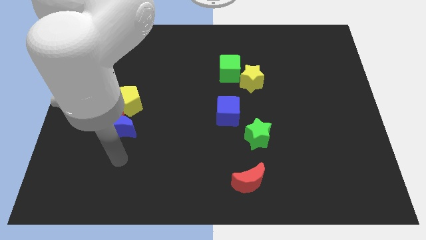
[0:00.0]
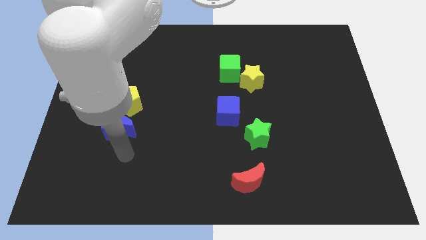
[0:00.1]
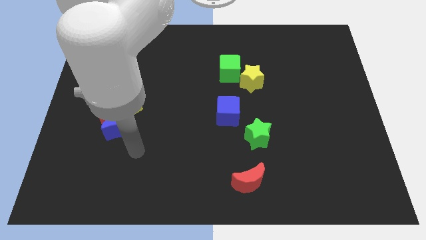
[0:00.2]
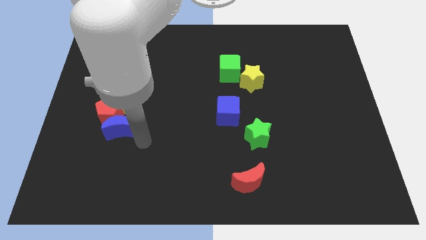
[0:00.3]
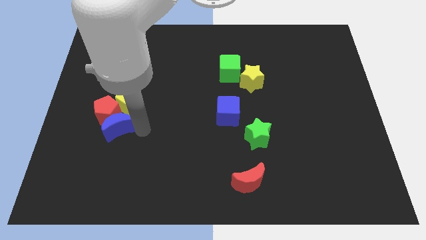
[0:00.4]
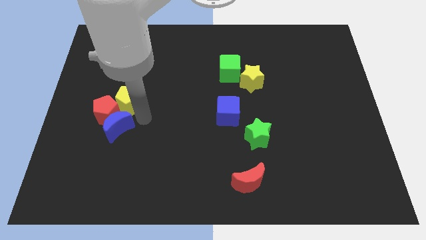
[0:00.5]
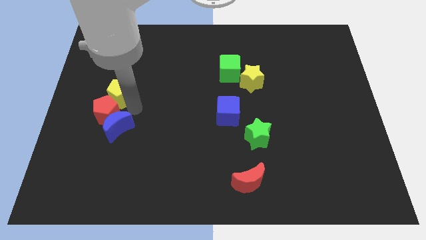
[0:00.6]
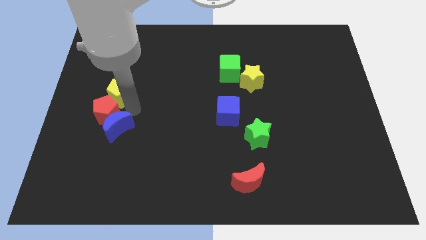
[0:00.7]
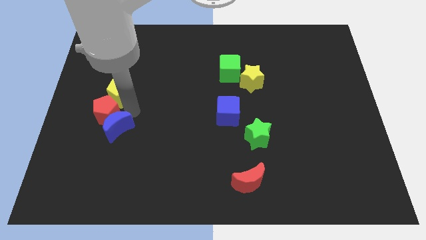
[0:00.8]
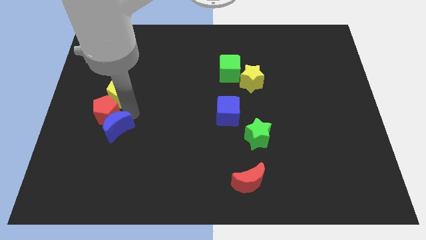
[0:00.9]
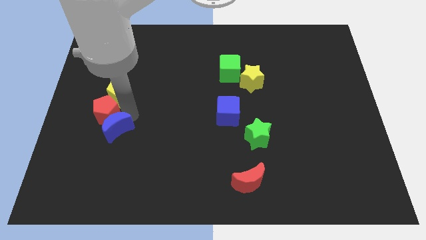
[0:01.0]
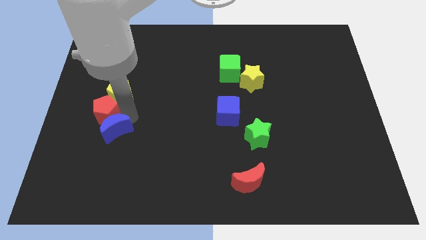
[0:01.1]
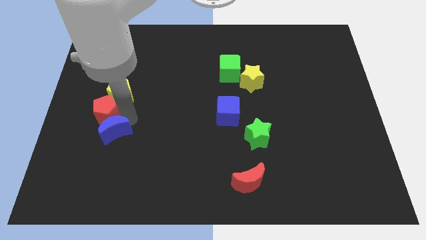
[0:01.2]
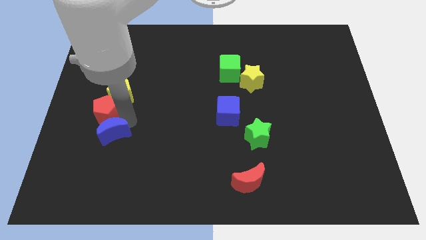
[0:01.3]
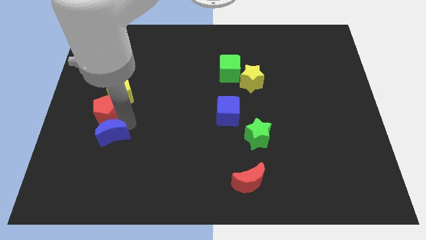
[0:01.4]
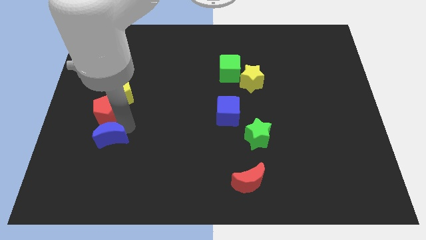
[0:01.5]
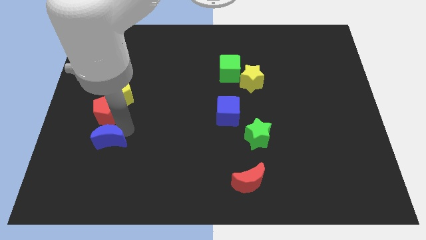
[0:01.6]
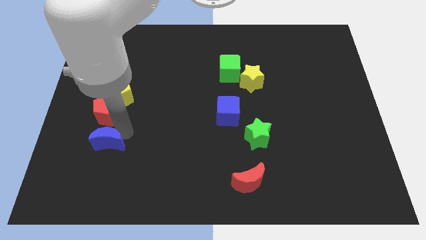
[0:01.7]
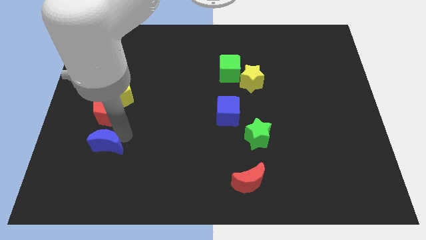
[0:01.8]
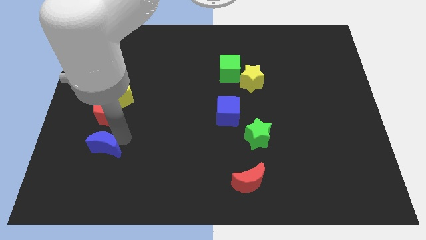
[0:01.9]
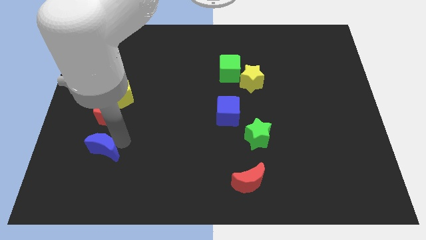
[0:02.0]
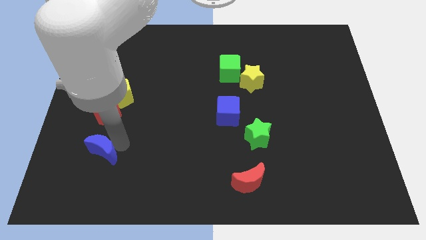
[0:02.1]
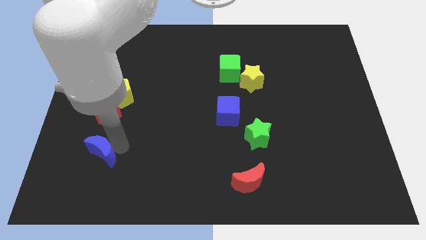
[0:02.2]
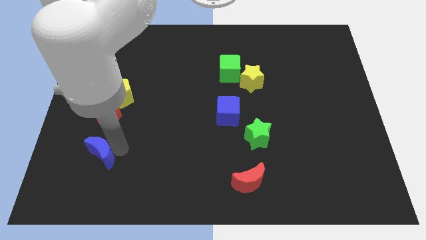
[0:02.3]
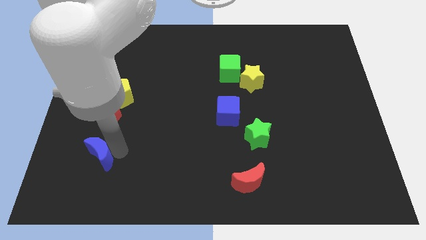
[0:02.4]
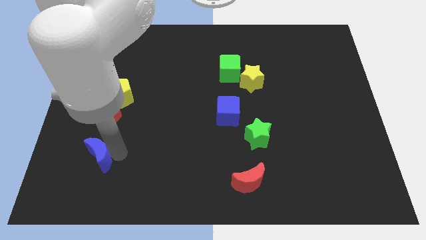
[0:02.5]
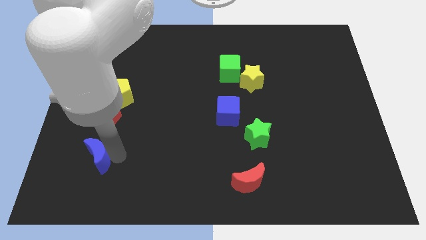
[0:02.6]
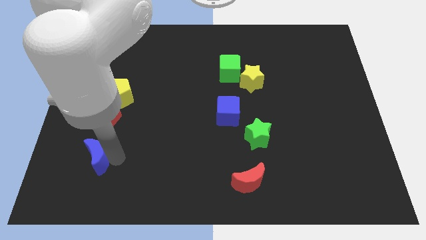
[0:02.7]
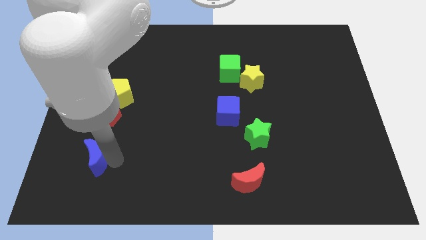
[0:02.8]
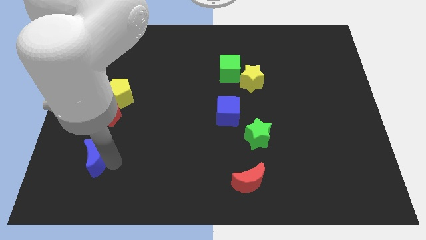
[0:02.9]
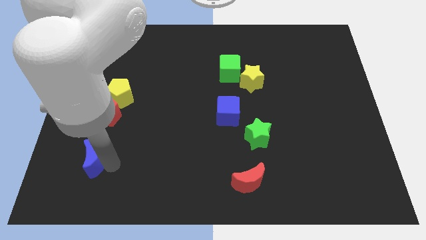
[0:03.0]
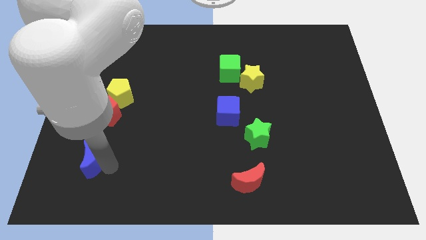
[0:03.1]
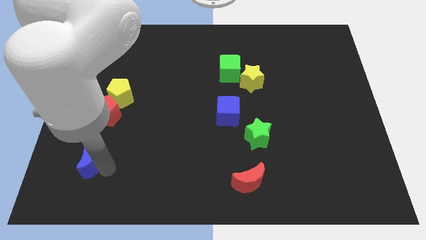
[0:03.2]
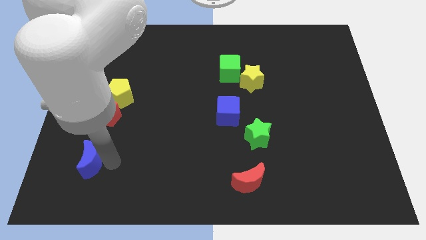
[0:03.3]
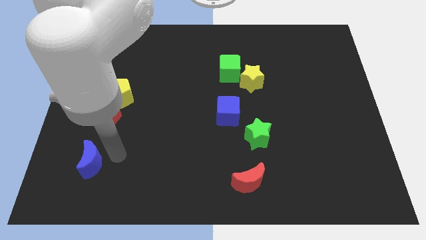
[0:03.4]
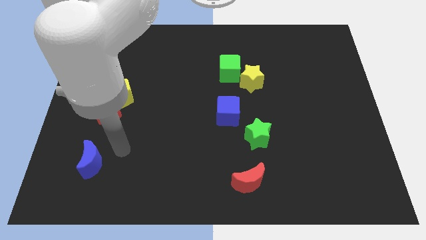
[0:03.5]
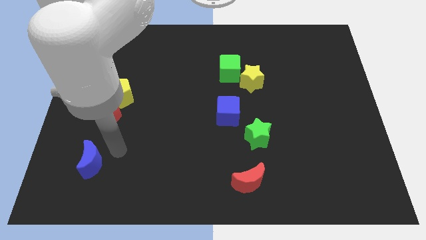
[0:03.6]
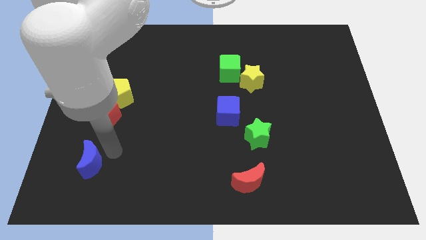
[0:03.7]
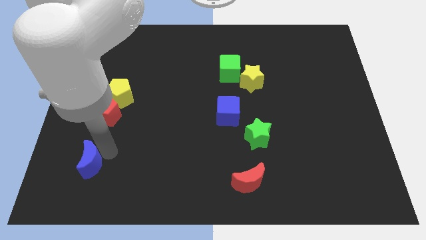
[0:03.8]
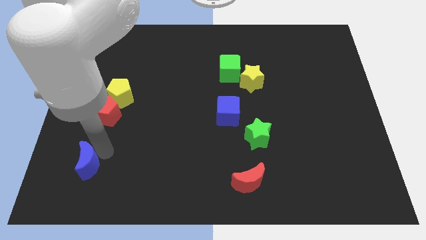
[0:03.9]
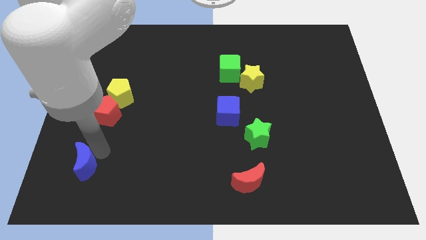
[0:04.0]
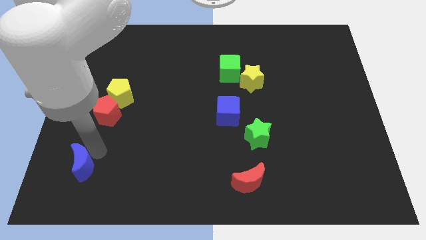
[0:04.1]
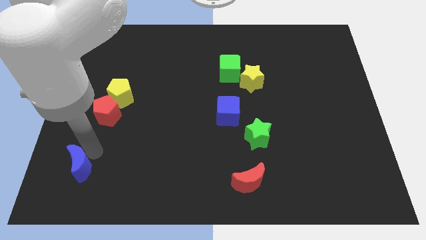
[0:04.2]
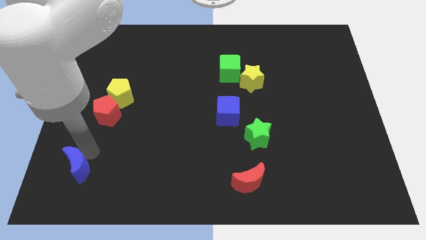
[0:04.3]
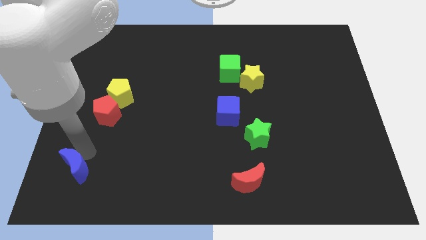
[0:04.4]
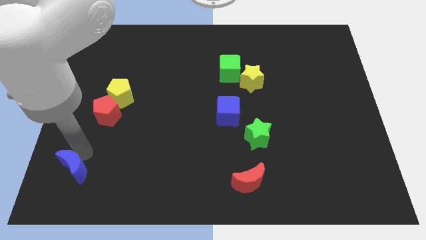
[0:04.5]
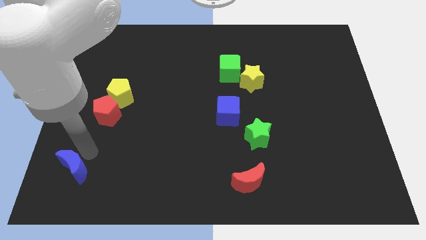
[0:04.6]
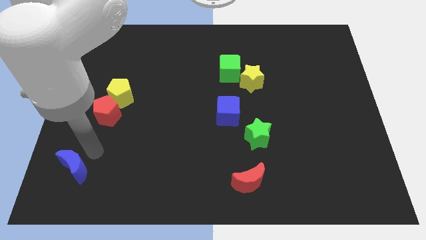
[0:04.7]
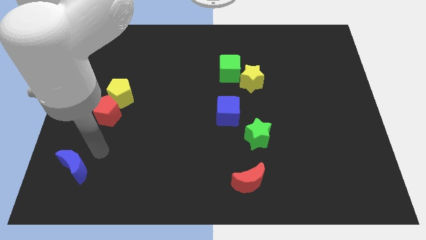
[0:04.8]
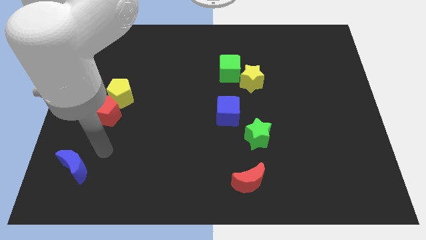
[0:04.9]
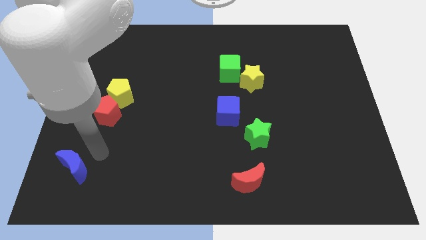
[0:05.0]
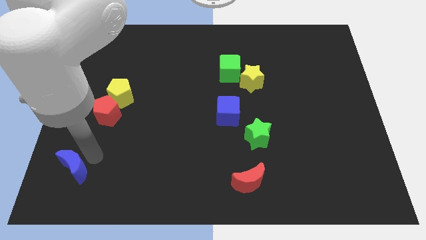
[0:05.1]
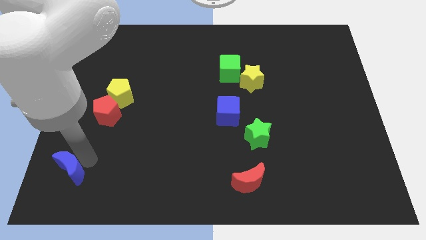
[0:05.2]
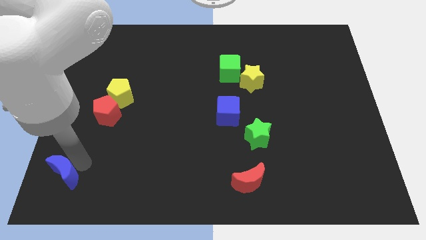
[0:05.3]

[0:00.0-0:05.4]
slide the blue moon to the bottom left of the board
